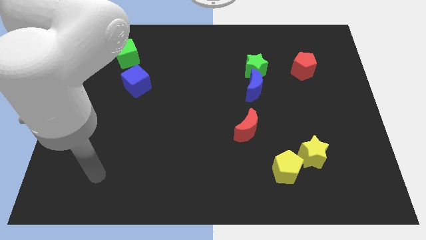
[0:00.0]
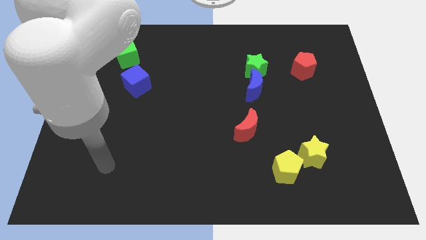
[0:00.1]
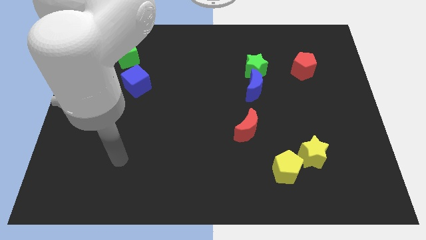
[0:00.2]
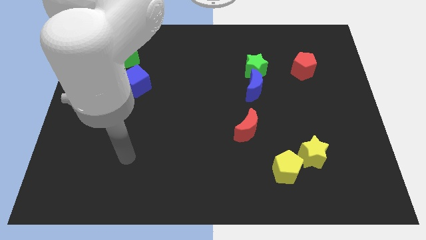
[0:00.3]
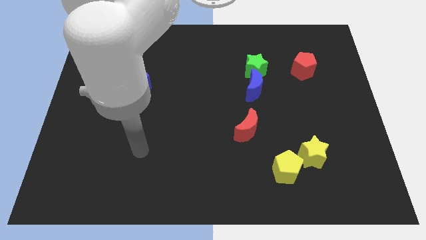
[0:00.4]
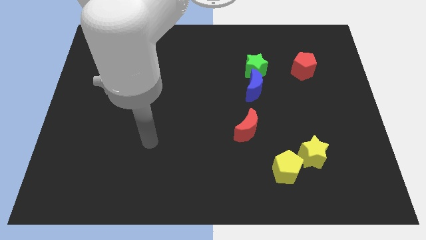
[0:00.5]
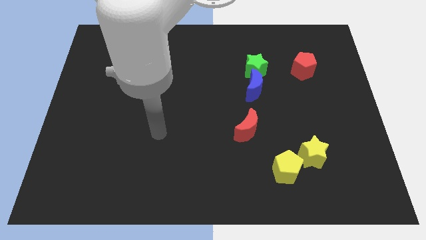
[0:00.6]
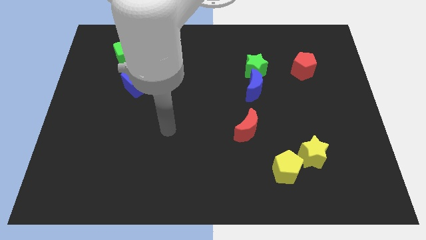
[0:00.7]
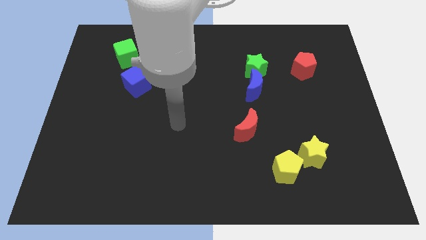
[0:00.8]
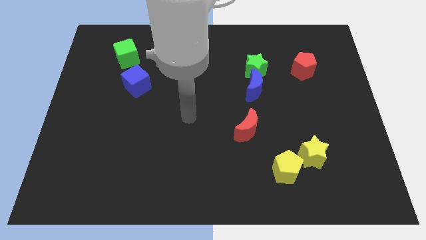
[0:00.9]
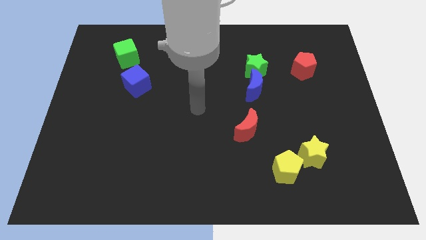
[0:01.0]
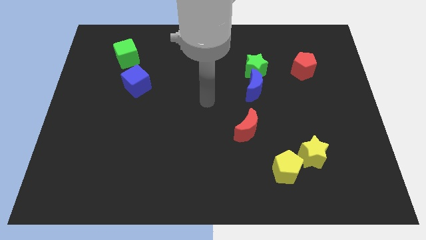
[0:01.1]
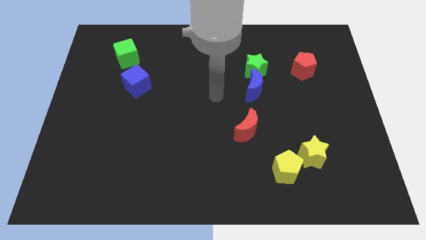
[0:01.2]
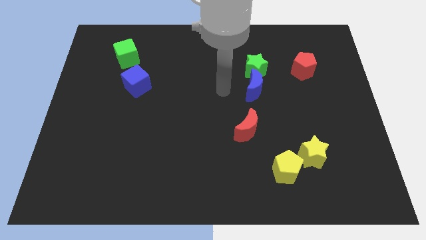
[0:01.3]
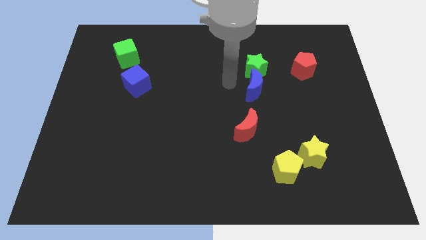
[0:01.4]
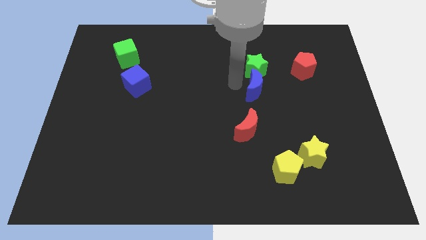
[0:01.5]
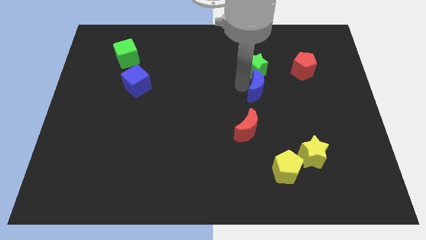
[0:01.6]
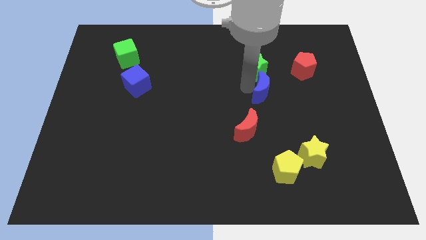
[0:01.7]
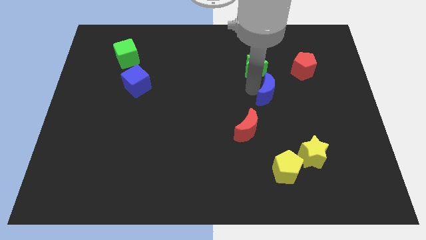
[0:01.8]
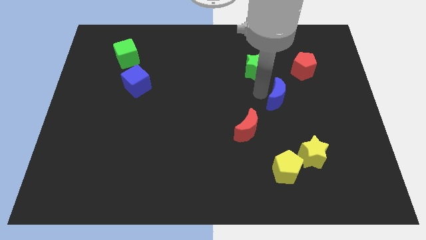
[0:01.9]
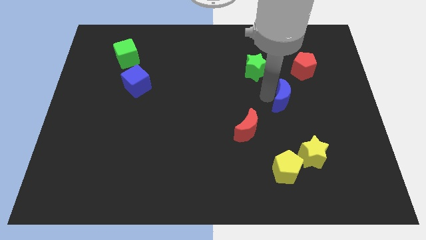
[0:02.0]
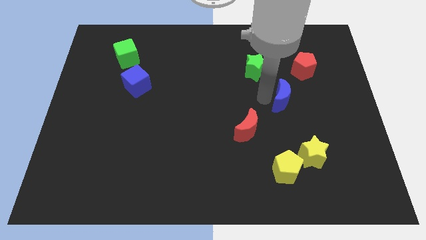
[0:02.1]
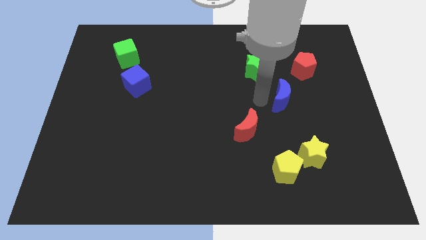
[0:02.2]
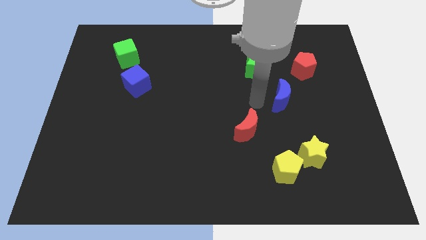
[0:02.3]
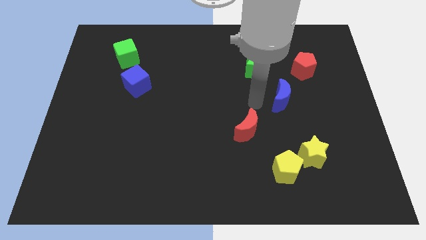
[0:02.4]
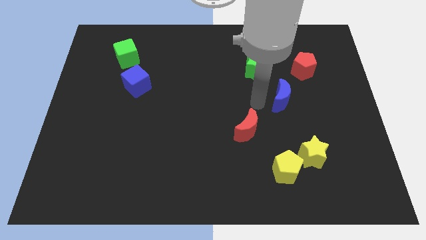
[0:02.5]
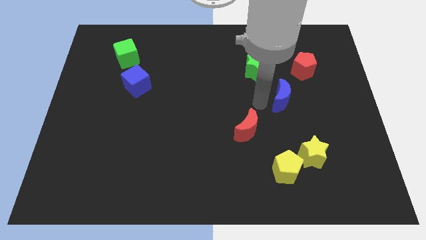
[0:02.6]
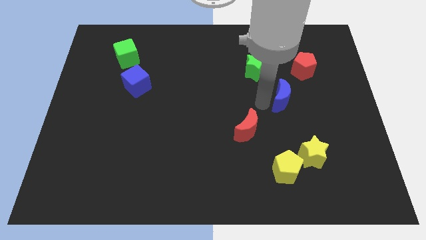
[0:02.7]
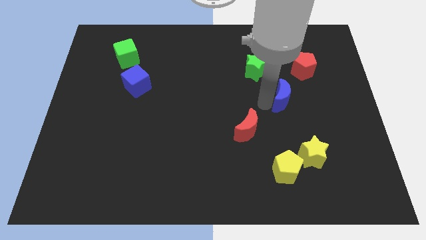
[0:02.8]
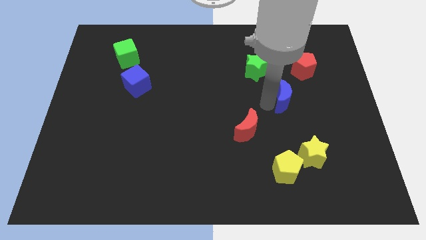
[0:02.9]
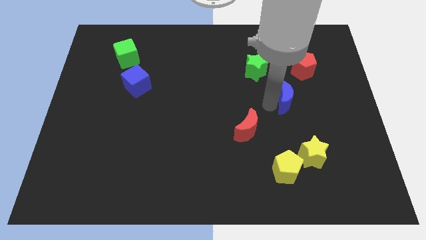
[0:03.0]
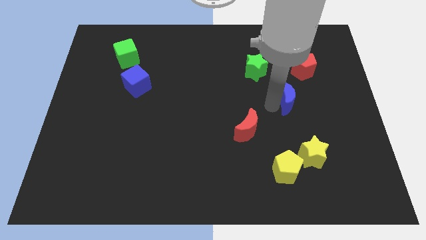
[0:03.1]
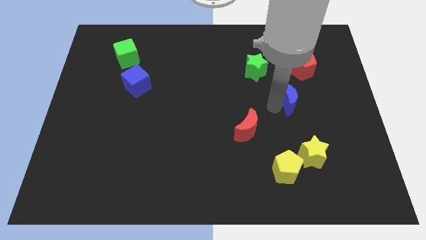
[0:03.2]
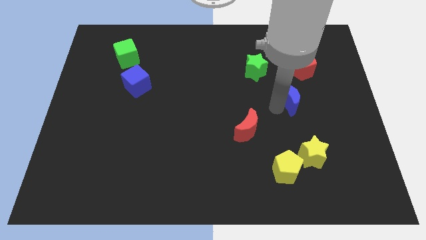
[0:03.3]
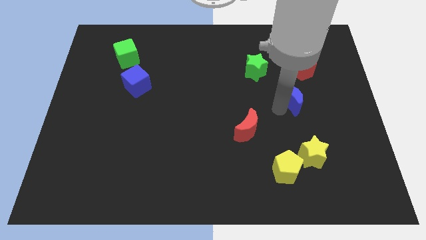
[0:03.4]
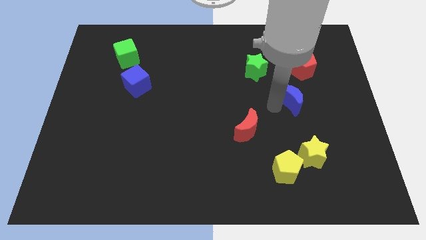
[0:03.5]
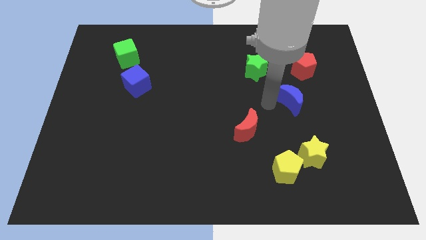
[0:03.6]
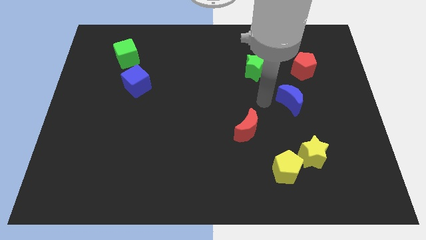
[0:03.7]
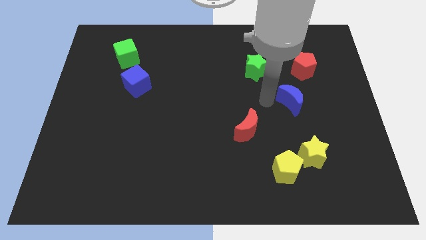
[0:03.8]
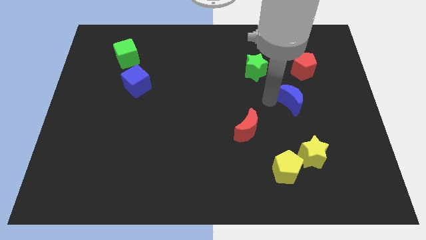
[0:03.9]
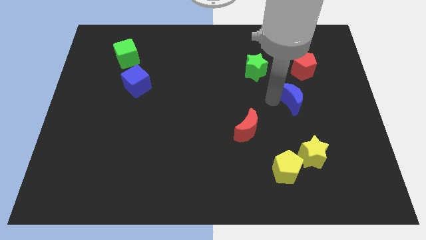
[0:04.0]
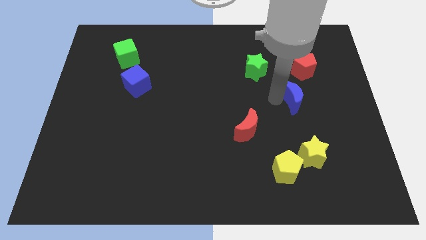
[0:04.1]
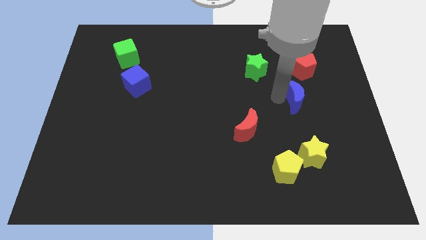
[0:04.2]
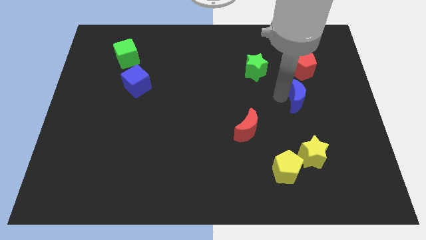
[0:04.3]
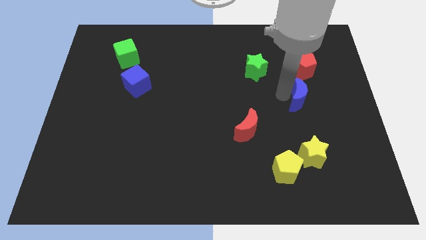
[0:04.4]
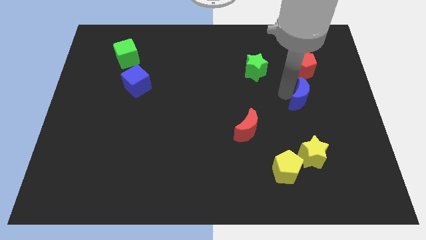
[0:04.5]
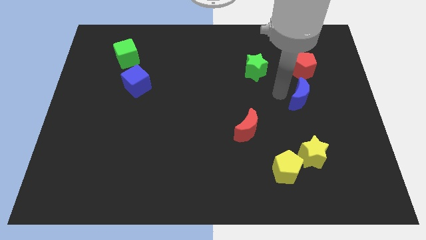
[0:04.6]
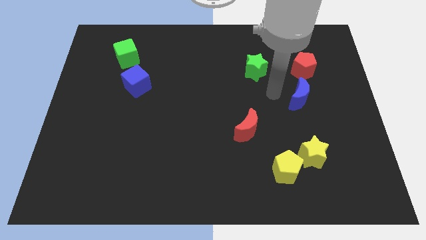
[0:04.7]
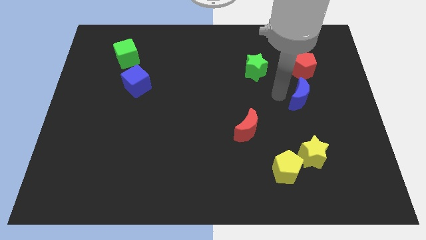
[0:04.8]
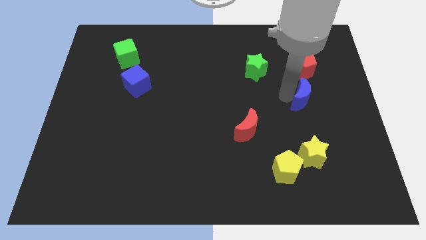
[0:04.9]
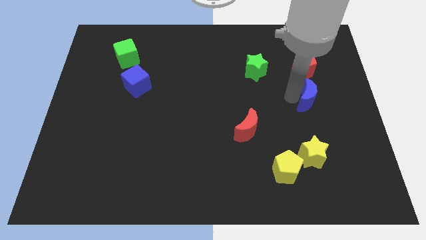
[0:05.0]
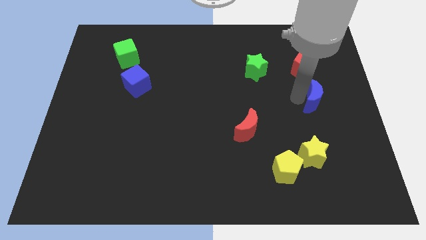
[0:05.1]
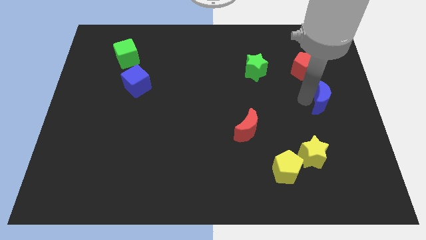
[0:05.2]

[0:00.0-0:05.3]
put the blue moon to the right side of the board

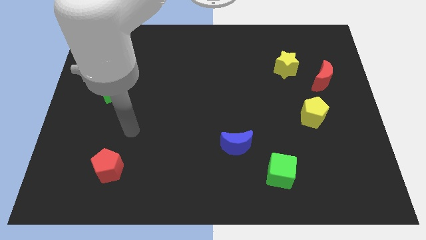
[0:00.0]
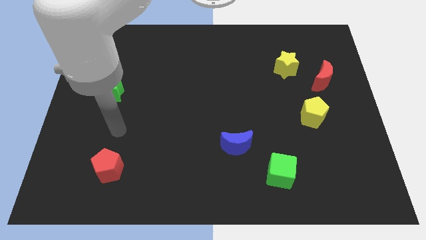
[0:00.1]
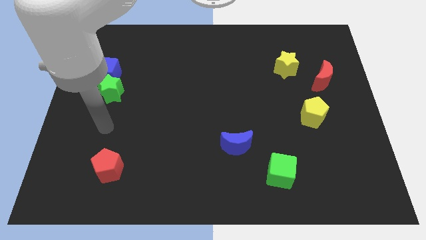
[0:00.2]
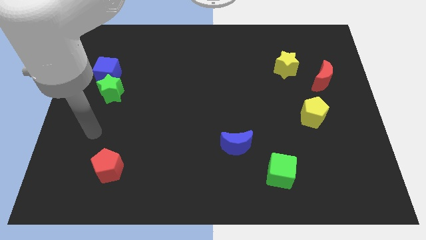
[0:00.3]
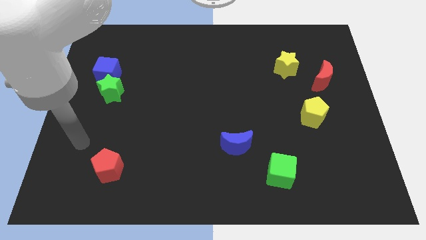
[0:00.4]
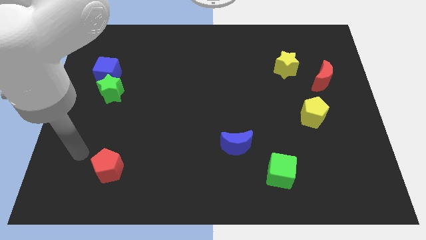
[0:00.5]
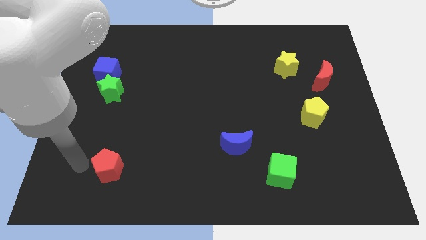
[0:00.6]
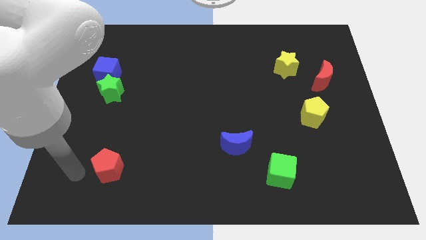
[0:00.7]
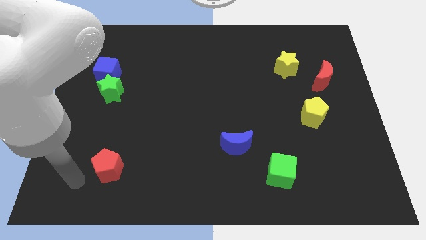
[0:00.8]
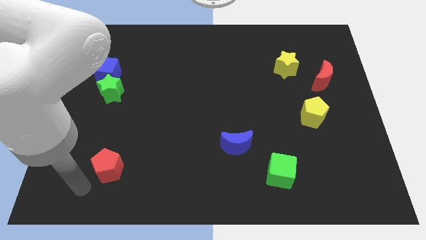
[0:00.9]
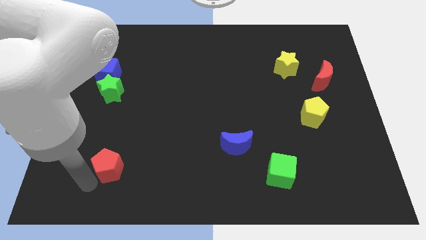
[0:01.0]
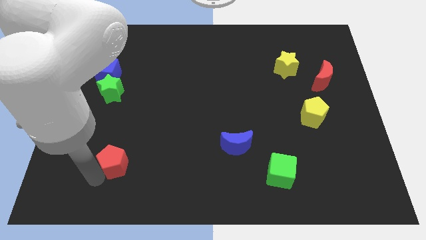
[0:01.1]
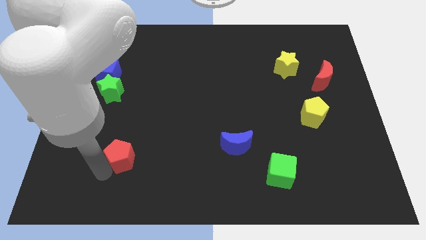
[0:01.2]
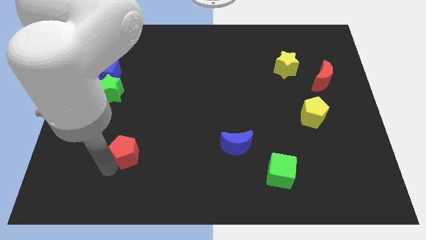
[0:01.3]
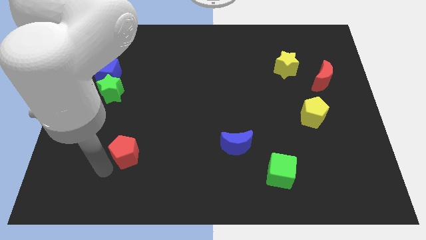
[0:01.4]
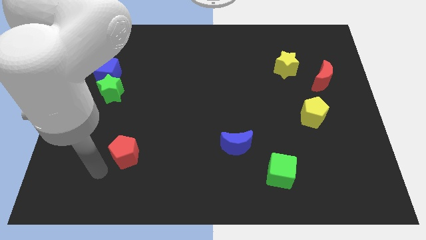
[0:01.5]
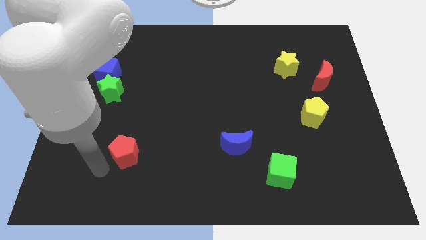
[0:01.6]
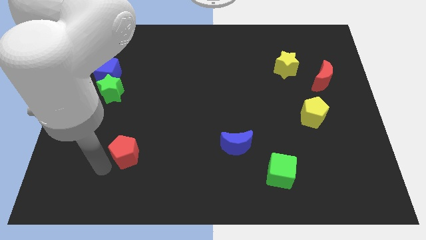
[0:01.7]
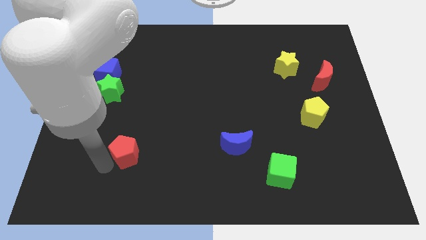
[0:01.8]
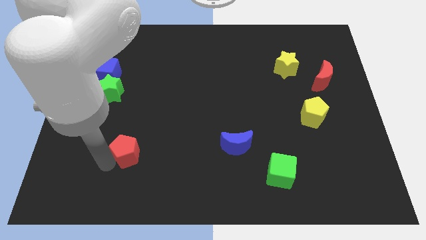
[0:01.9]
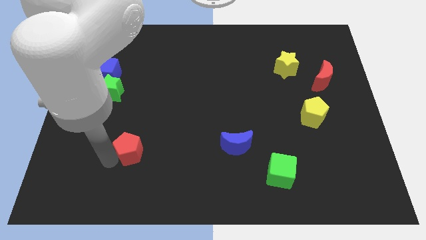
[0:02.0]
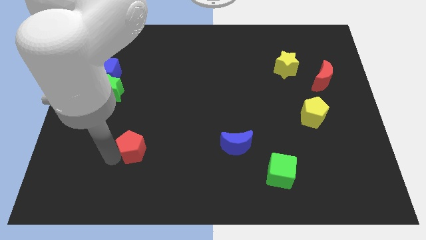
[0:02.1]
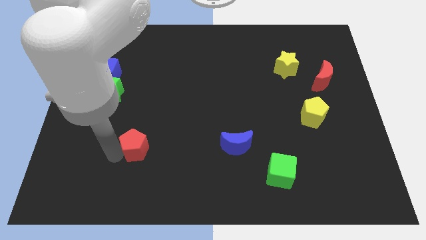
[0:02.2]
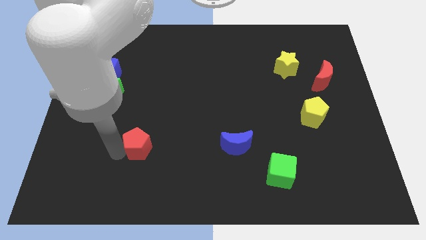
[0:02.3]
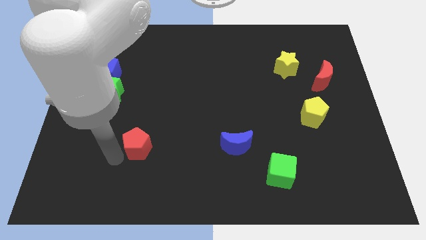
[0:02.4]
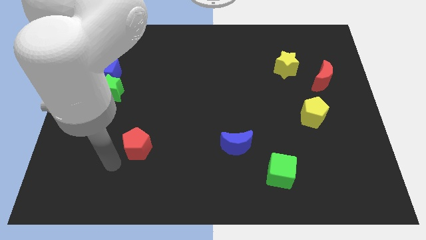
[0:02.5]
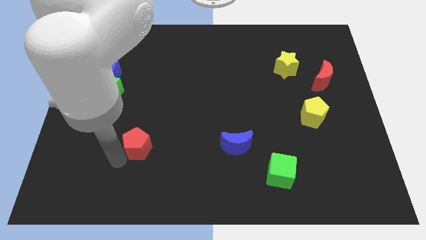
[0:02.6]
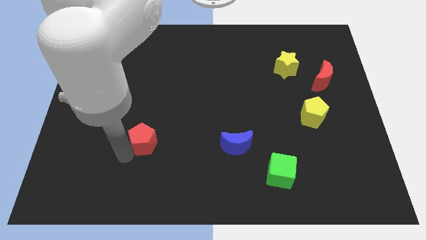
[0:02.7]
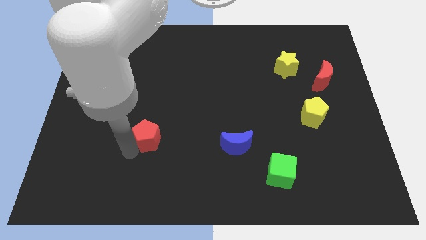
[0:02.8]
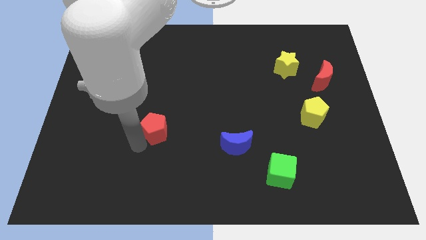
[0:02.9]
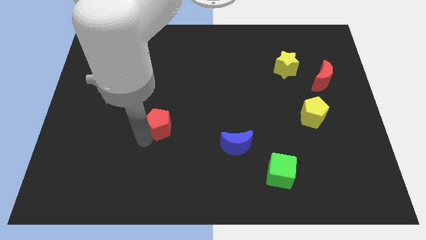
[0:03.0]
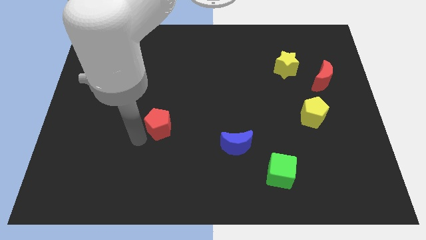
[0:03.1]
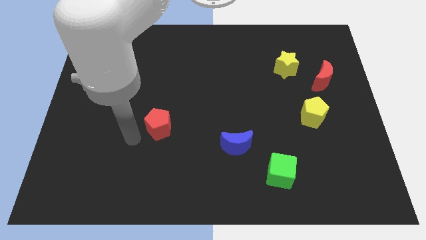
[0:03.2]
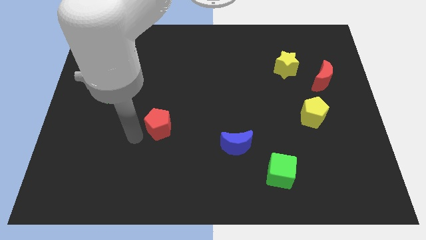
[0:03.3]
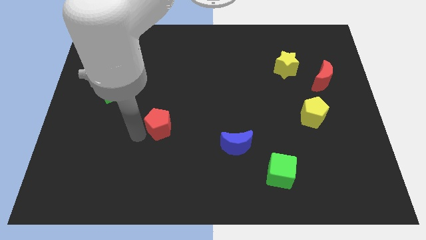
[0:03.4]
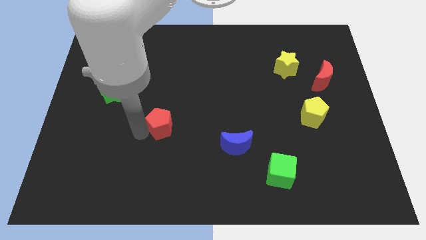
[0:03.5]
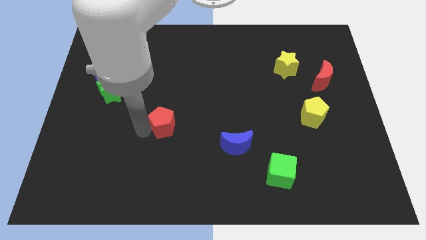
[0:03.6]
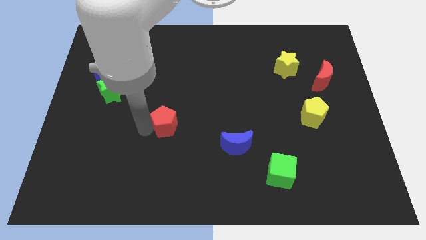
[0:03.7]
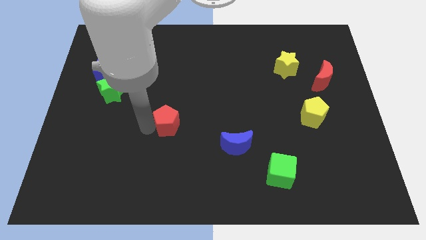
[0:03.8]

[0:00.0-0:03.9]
push the red pentagon to the middle of the board
